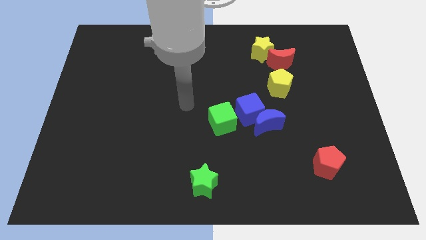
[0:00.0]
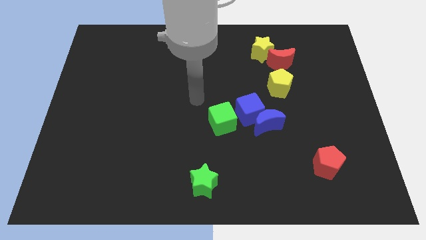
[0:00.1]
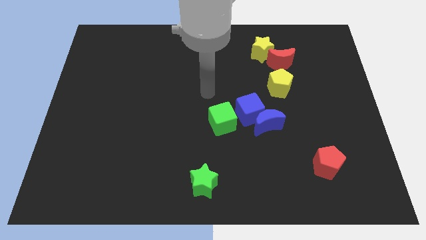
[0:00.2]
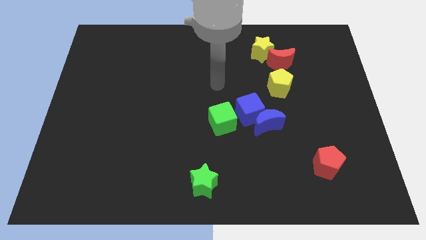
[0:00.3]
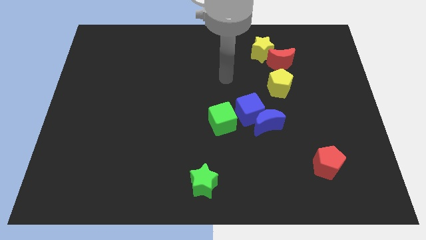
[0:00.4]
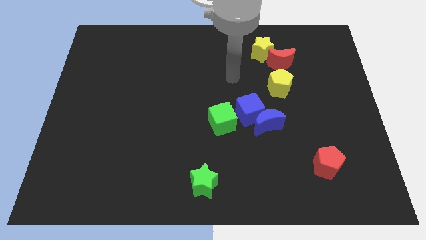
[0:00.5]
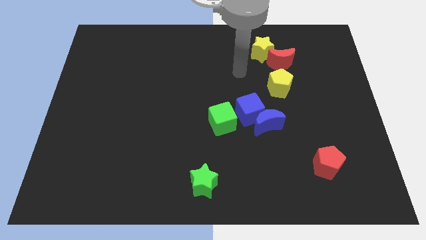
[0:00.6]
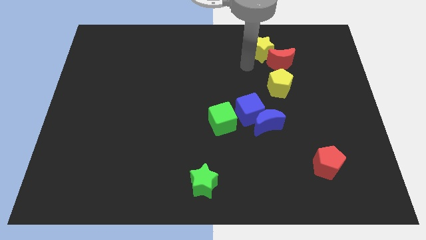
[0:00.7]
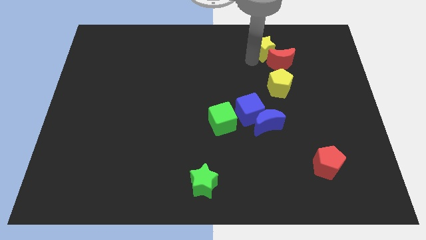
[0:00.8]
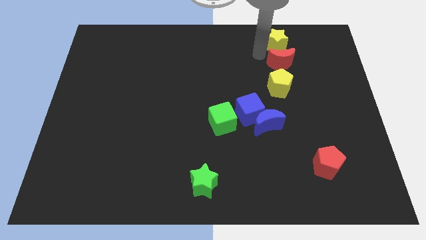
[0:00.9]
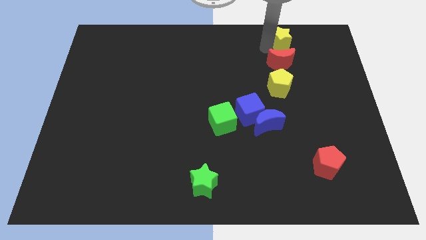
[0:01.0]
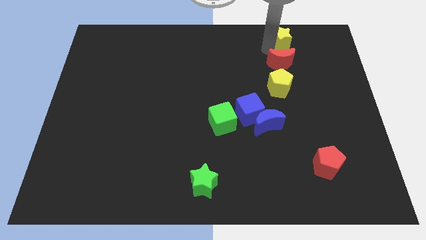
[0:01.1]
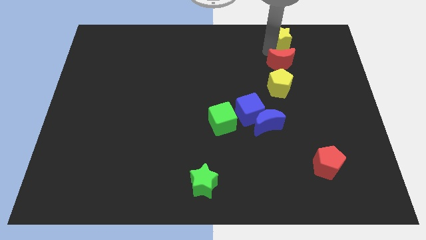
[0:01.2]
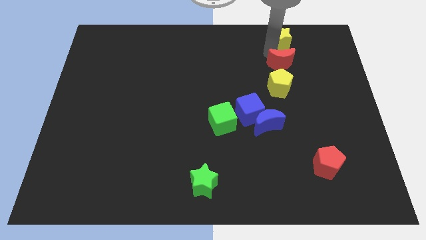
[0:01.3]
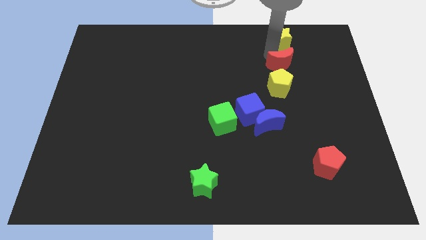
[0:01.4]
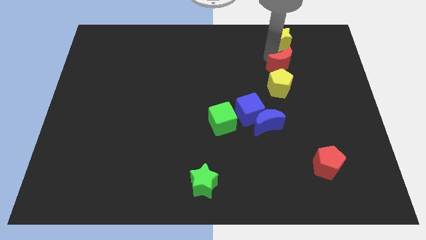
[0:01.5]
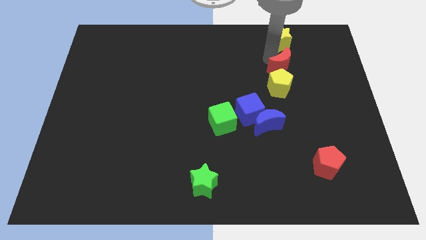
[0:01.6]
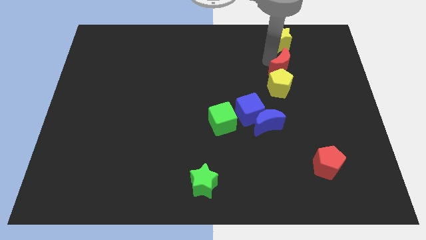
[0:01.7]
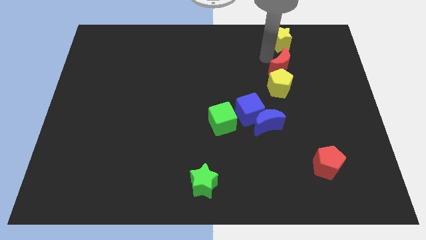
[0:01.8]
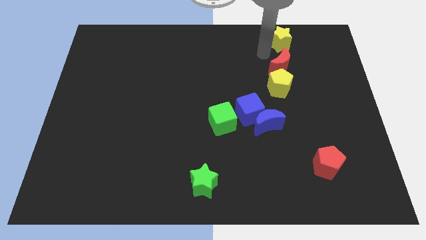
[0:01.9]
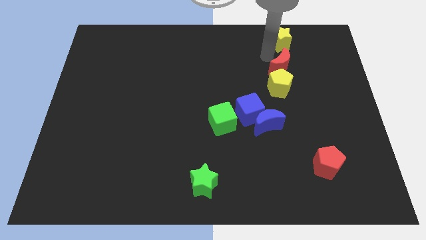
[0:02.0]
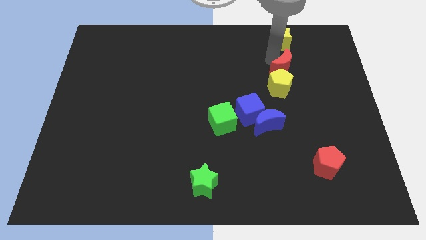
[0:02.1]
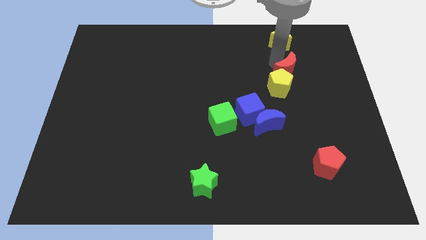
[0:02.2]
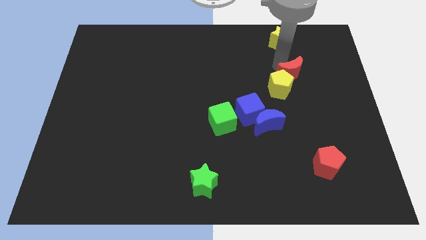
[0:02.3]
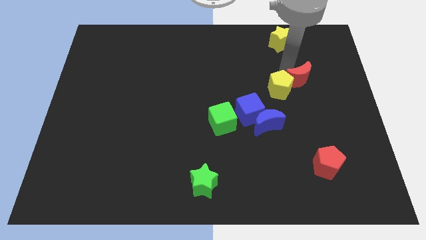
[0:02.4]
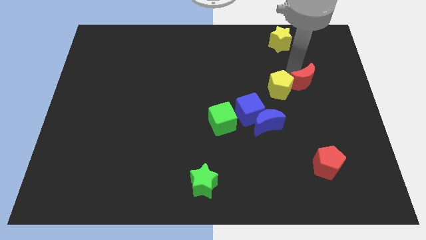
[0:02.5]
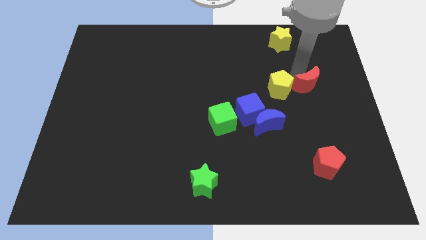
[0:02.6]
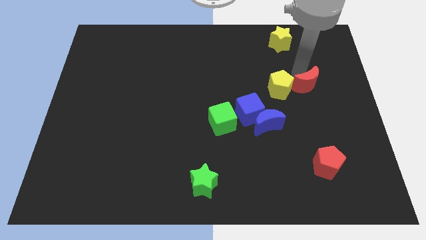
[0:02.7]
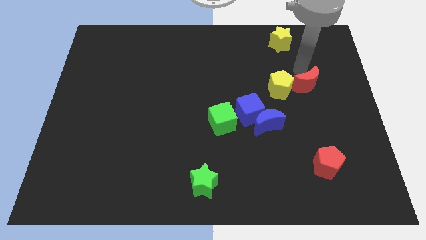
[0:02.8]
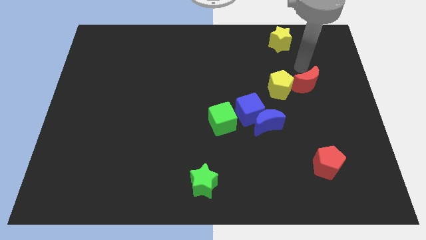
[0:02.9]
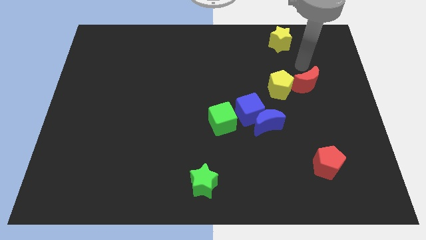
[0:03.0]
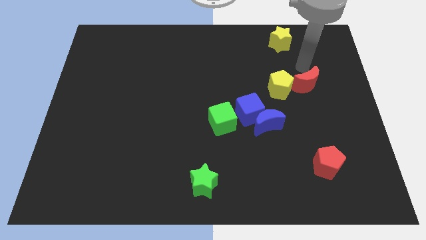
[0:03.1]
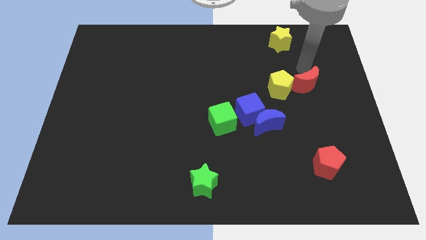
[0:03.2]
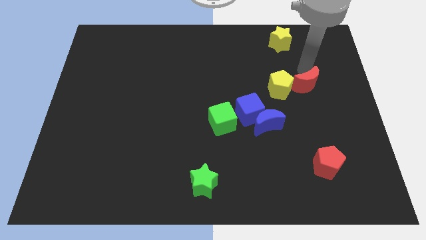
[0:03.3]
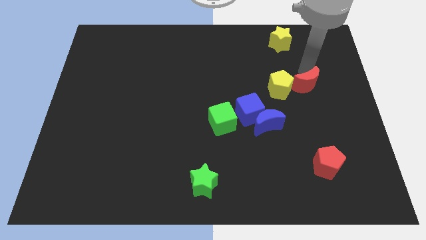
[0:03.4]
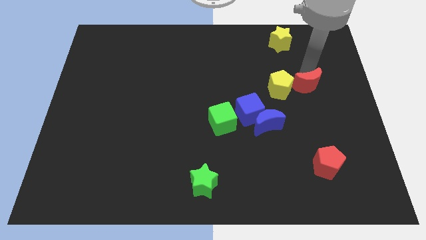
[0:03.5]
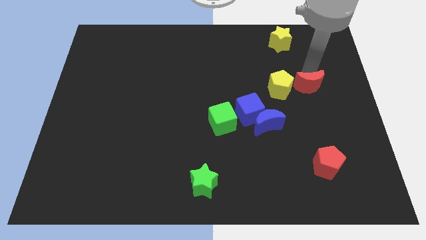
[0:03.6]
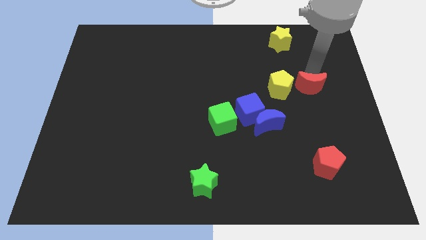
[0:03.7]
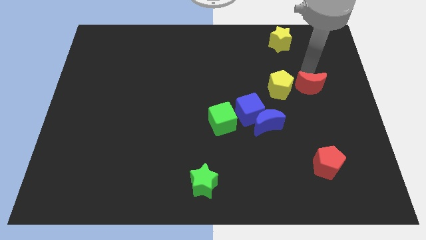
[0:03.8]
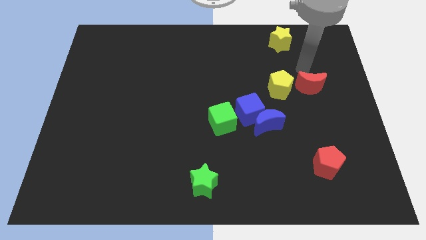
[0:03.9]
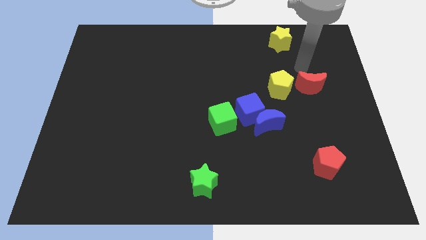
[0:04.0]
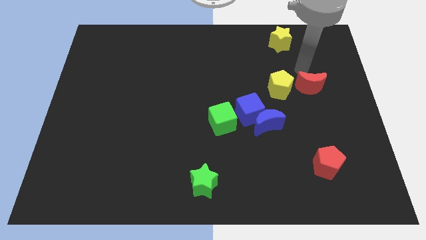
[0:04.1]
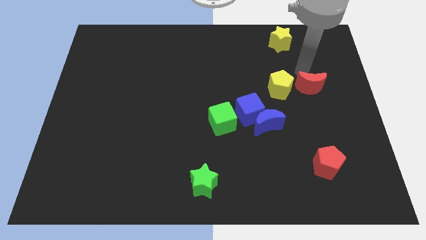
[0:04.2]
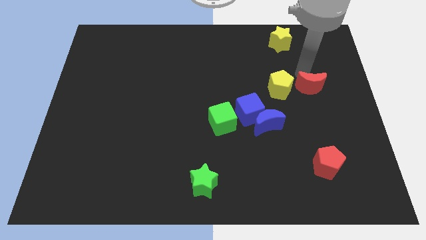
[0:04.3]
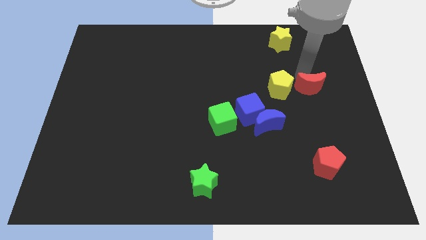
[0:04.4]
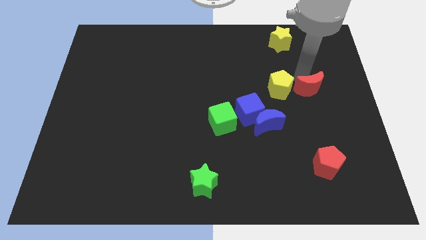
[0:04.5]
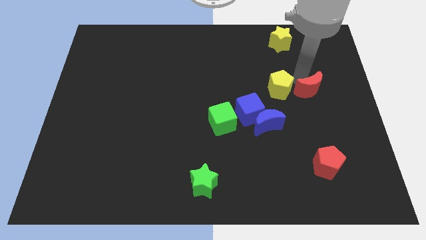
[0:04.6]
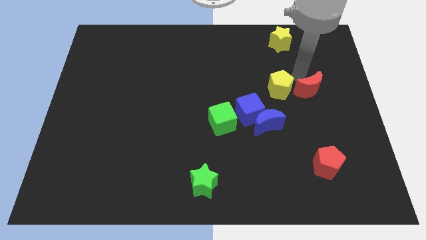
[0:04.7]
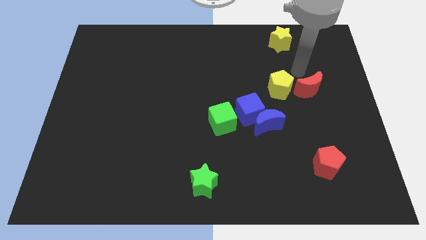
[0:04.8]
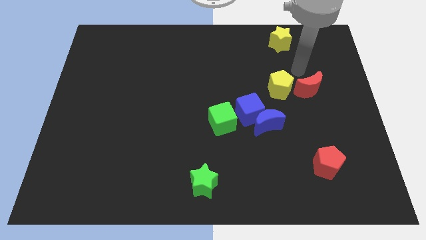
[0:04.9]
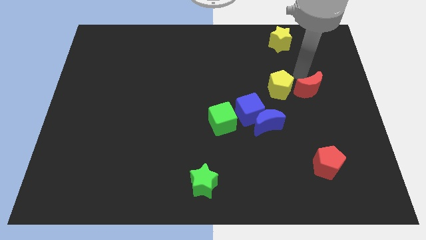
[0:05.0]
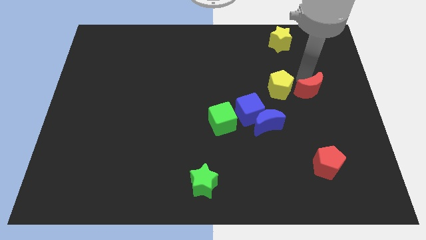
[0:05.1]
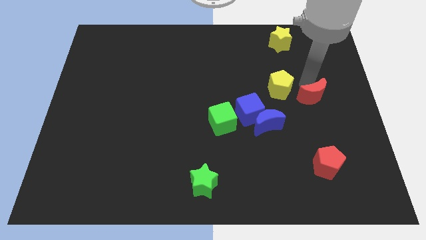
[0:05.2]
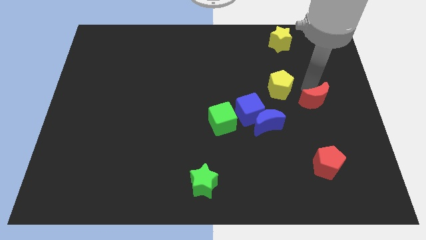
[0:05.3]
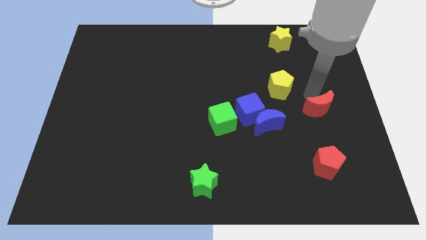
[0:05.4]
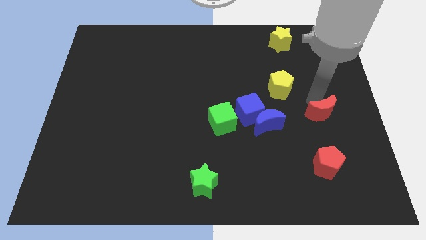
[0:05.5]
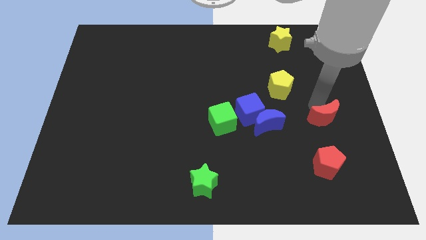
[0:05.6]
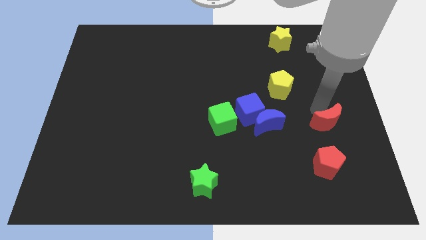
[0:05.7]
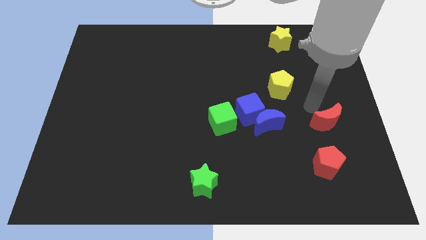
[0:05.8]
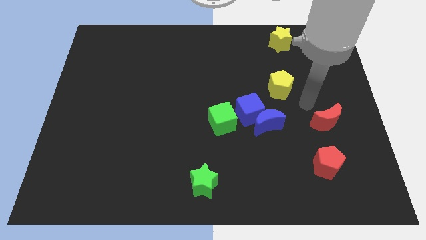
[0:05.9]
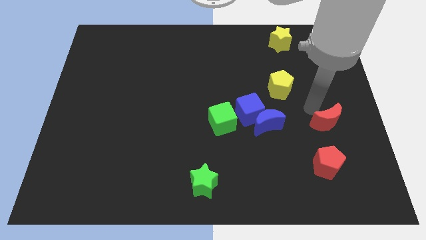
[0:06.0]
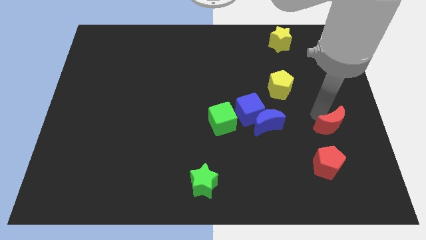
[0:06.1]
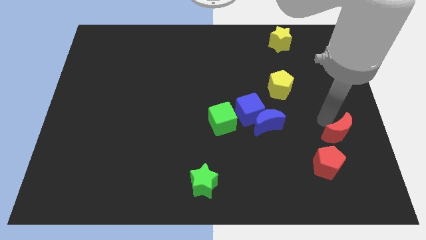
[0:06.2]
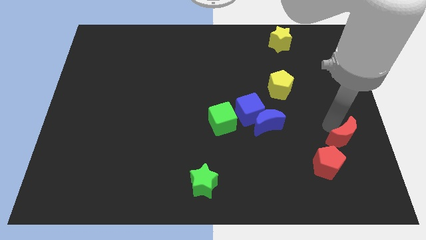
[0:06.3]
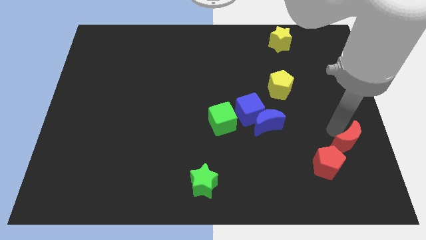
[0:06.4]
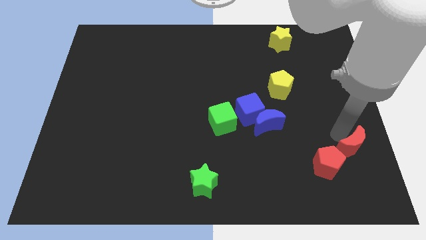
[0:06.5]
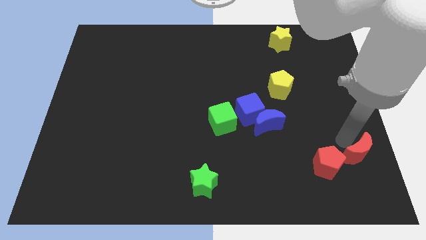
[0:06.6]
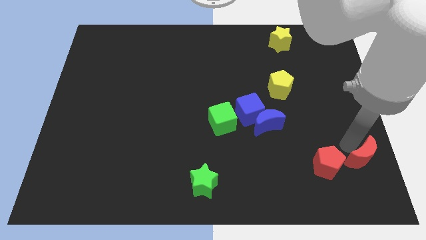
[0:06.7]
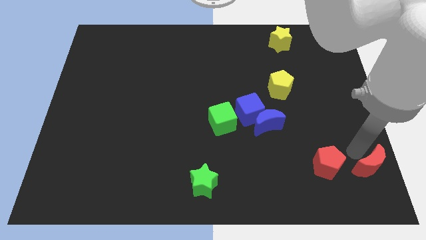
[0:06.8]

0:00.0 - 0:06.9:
slide the red moon to the lower right corner
